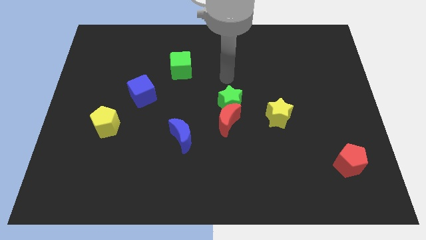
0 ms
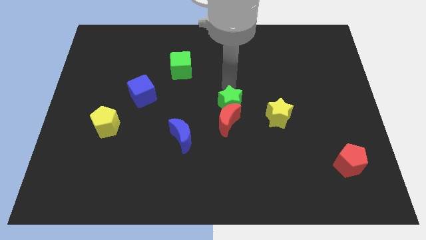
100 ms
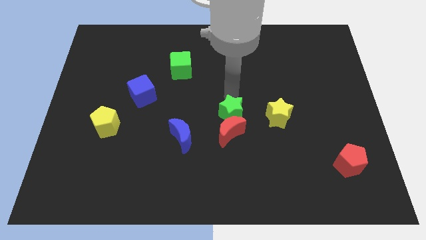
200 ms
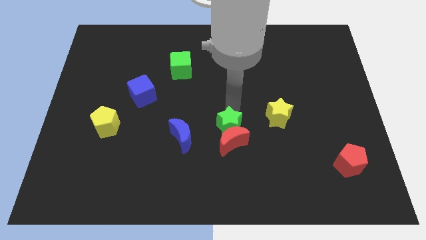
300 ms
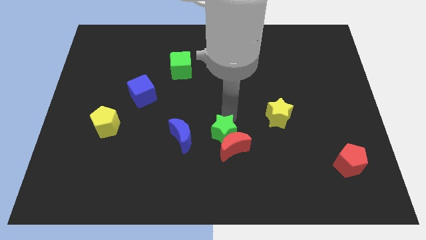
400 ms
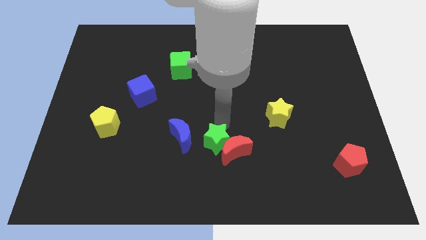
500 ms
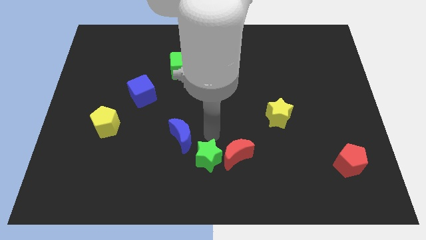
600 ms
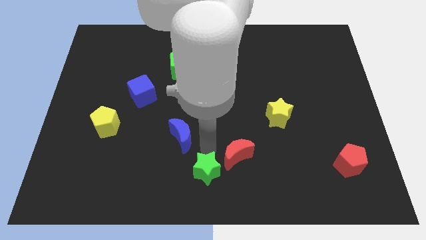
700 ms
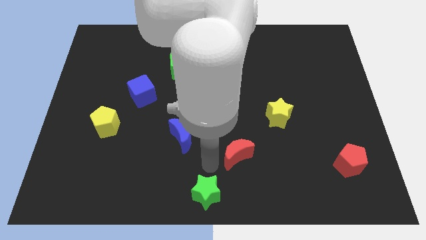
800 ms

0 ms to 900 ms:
separate the red moon from the green star

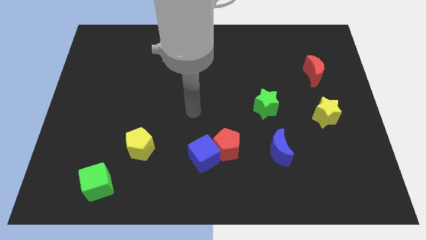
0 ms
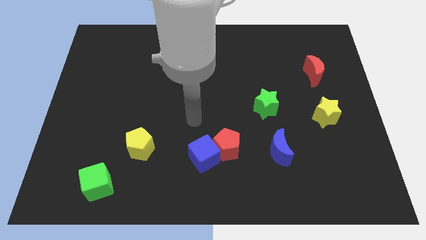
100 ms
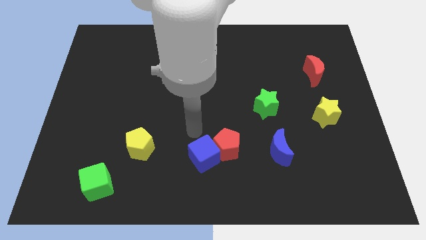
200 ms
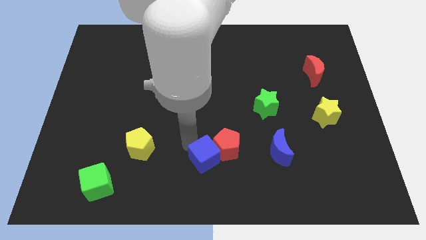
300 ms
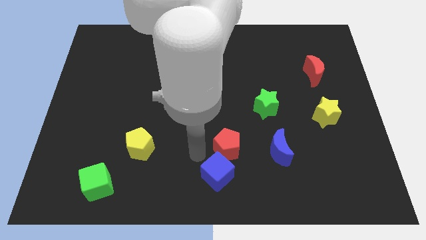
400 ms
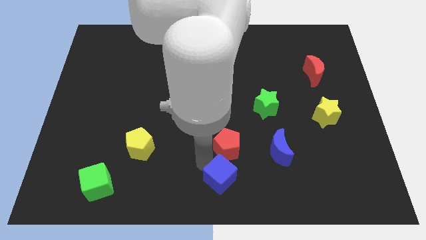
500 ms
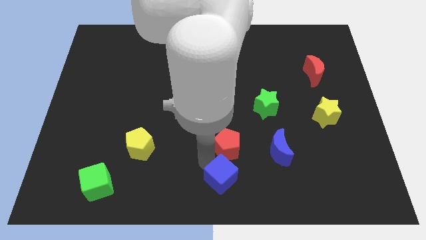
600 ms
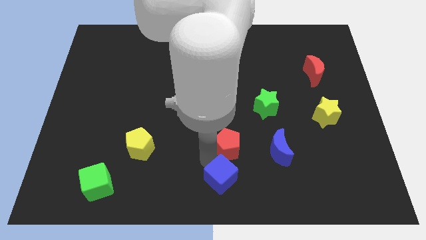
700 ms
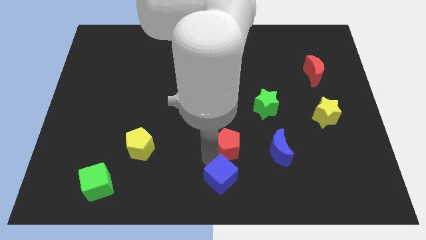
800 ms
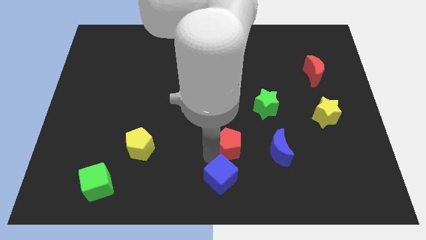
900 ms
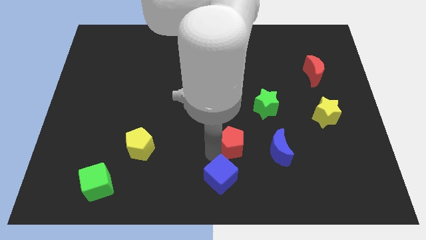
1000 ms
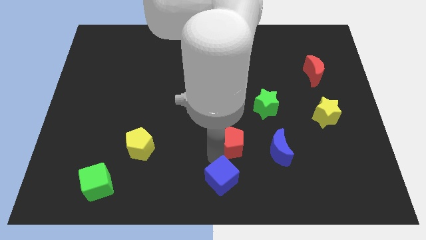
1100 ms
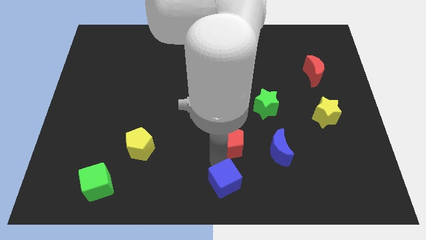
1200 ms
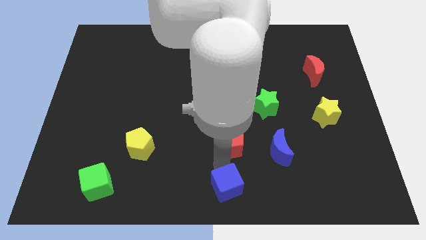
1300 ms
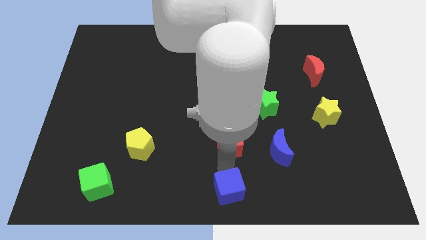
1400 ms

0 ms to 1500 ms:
move the red pentagon away from the blue cube

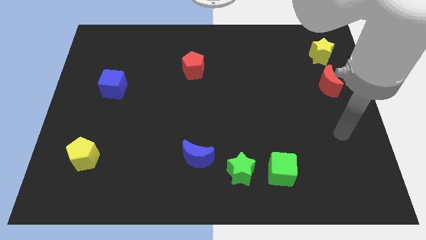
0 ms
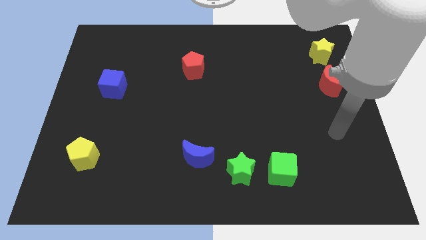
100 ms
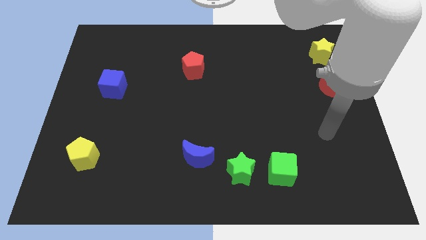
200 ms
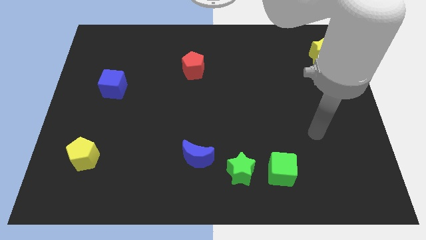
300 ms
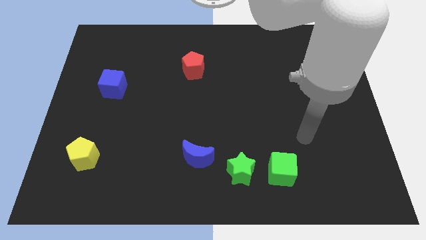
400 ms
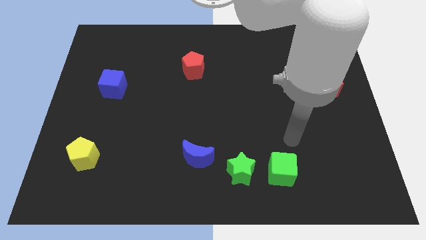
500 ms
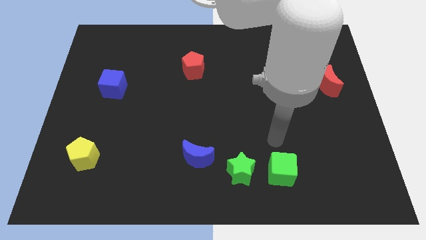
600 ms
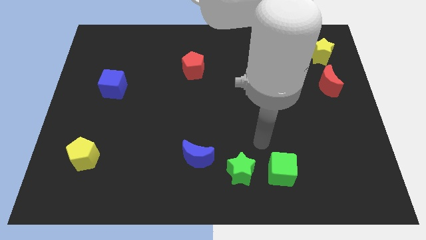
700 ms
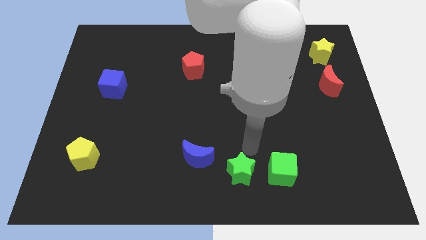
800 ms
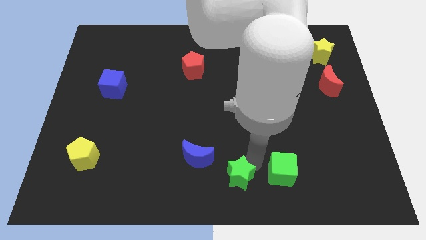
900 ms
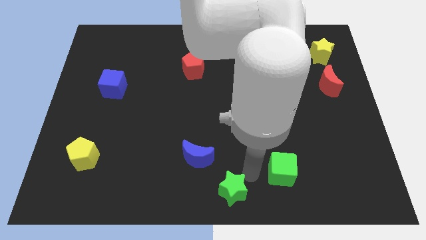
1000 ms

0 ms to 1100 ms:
pull the green cube apart from the green star

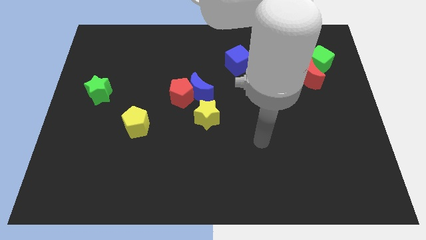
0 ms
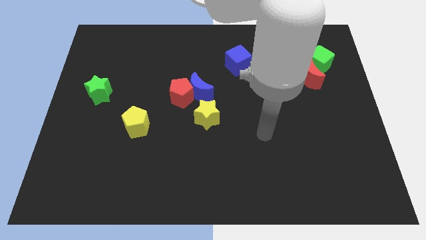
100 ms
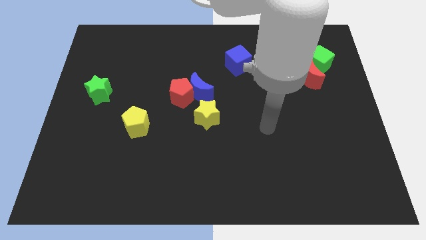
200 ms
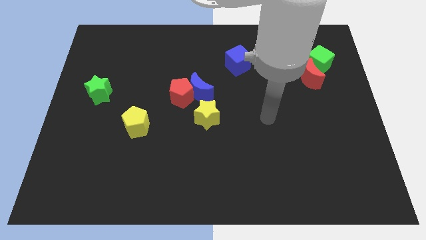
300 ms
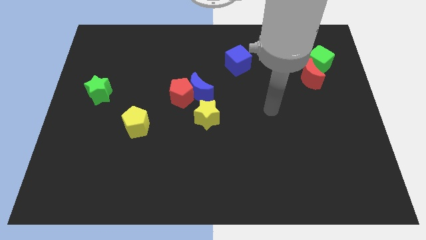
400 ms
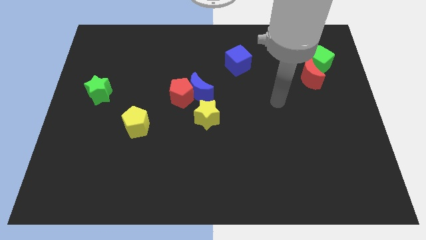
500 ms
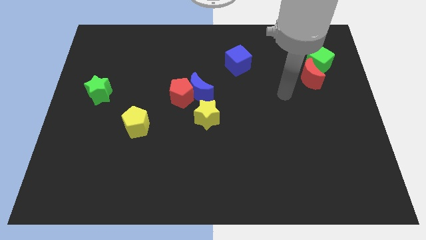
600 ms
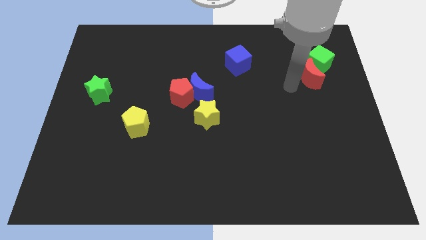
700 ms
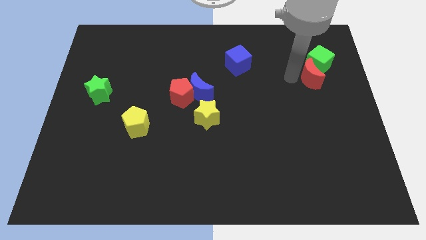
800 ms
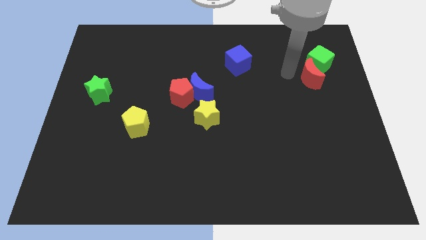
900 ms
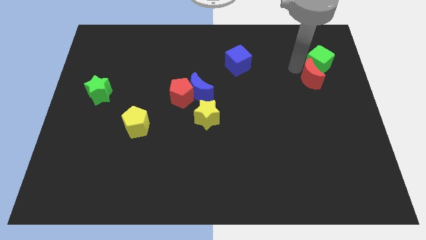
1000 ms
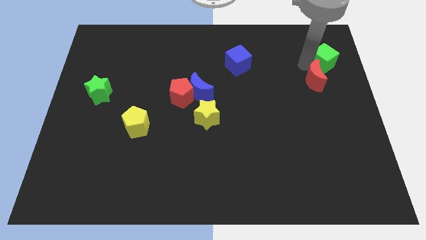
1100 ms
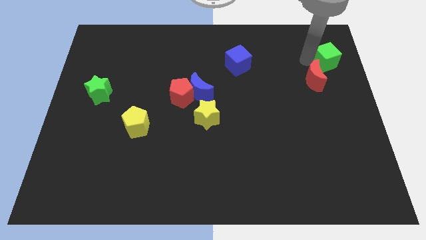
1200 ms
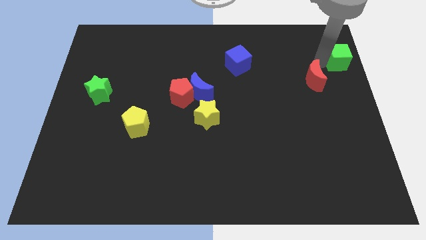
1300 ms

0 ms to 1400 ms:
move the red moon away from the green cube

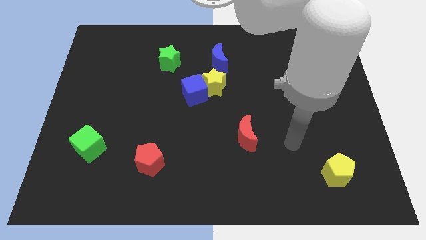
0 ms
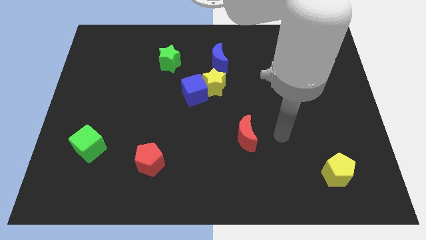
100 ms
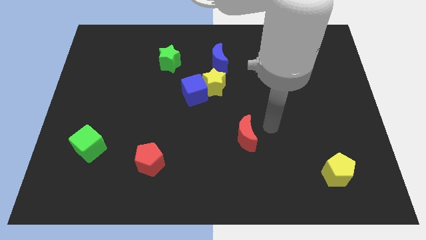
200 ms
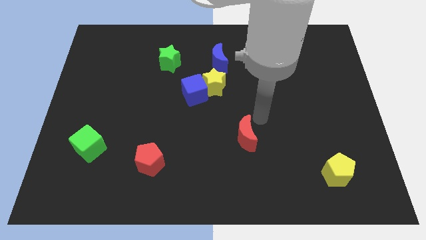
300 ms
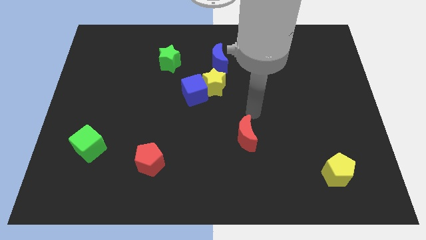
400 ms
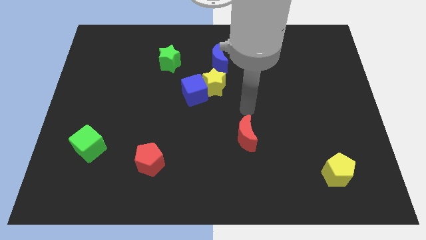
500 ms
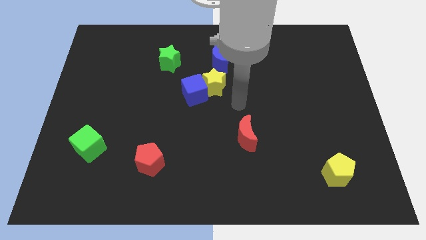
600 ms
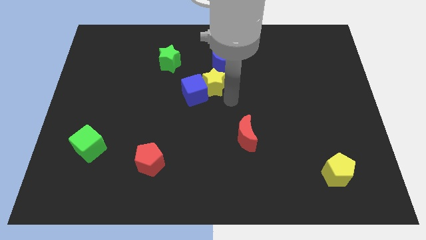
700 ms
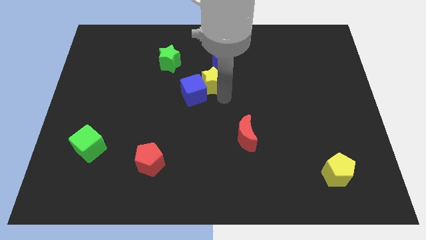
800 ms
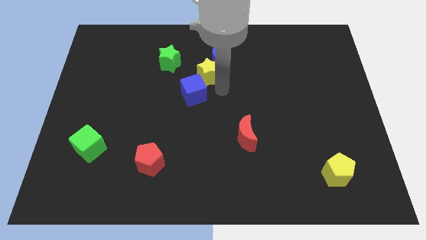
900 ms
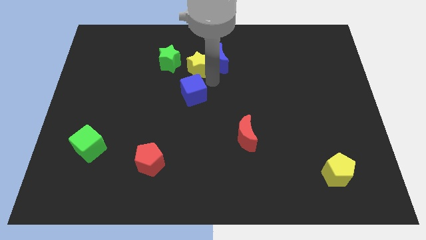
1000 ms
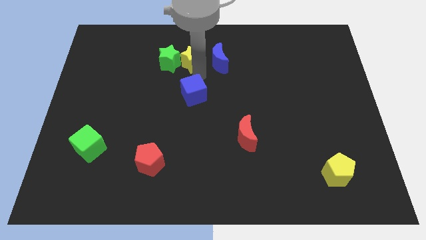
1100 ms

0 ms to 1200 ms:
pull the blue cube apart from the yellow star

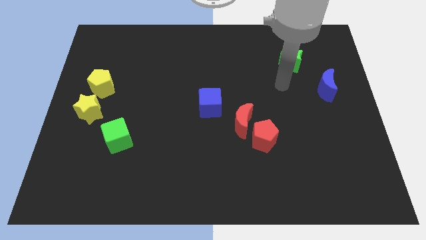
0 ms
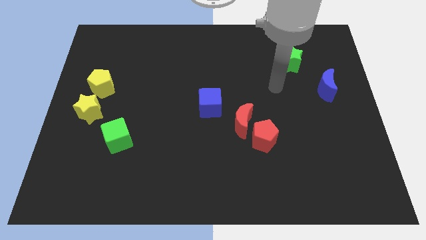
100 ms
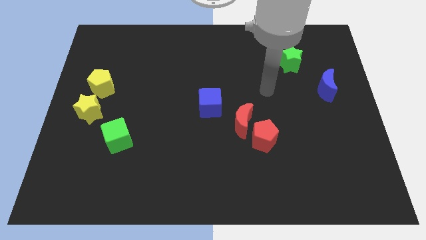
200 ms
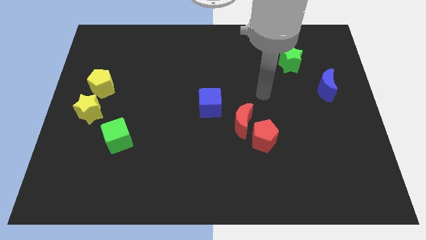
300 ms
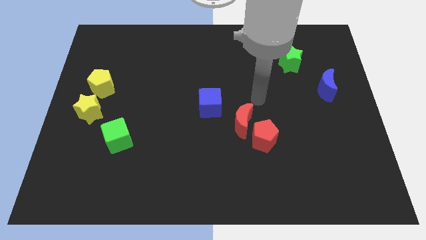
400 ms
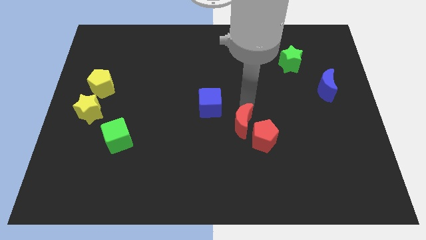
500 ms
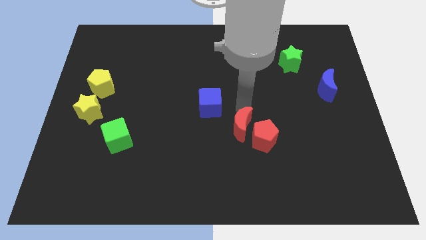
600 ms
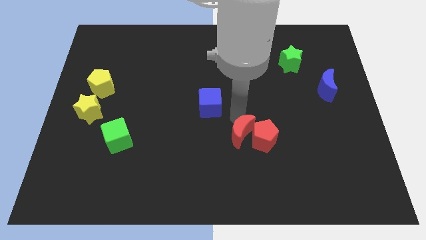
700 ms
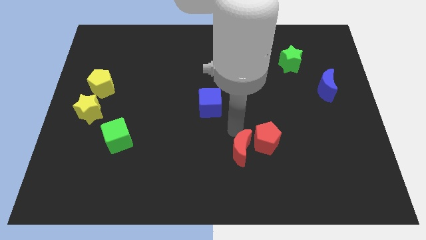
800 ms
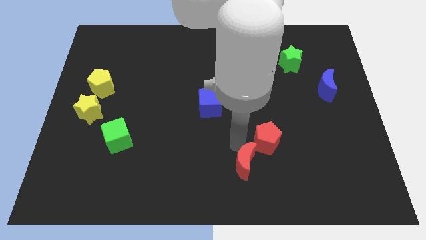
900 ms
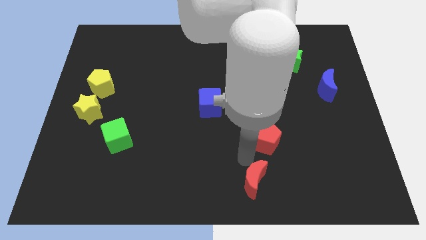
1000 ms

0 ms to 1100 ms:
separate the red pentagon from the red moon

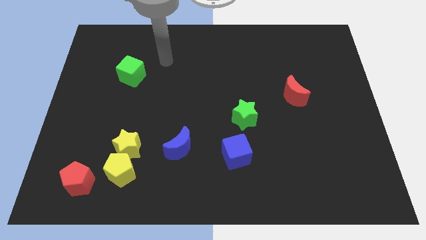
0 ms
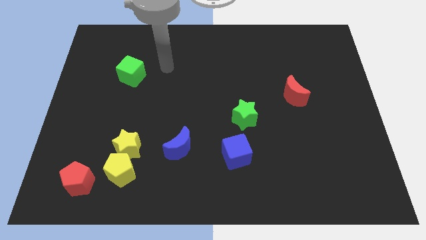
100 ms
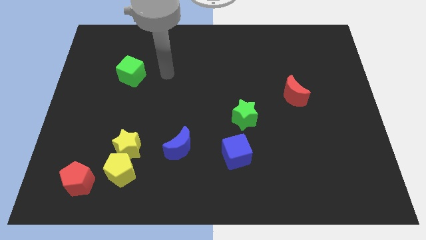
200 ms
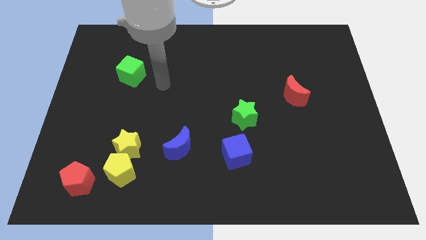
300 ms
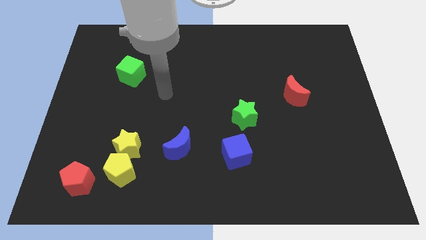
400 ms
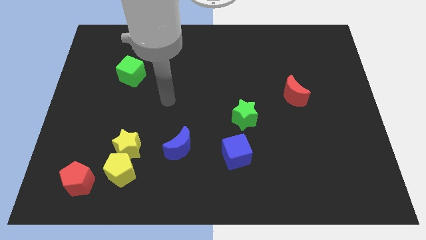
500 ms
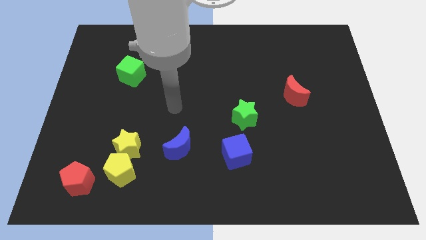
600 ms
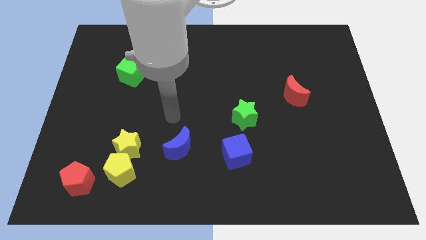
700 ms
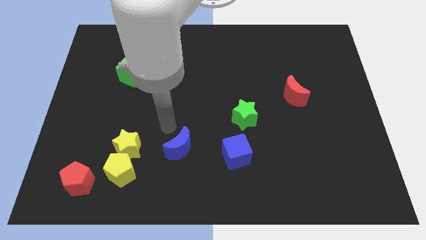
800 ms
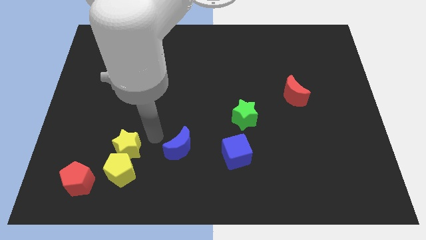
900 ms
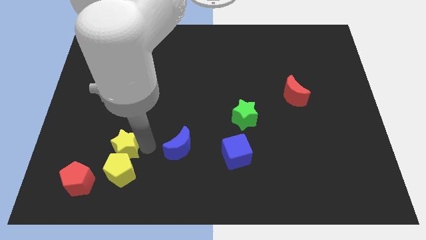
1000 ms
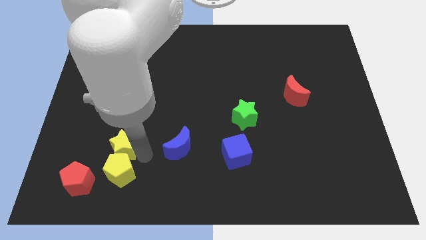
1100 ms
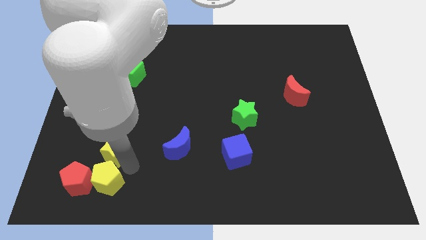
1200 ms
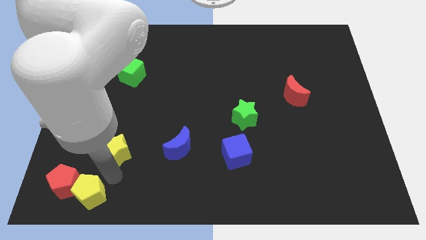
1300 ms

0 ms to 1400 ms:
pull the yellow star apart from the yellow pentagon

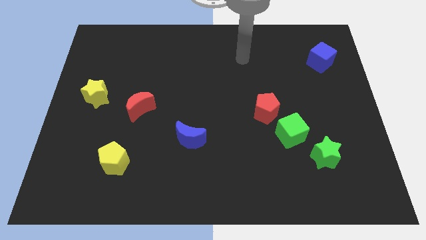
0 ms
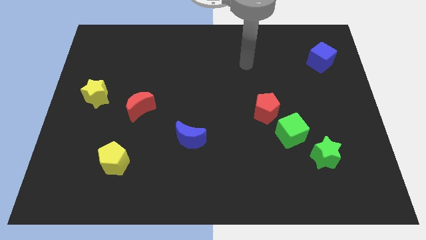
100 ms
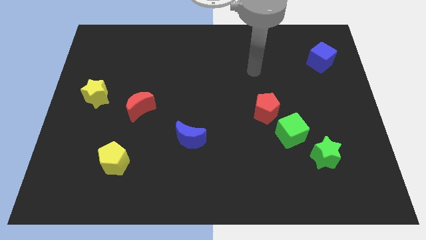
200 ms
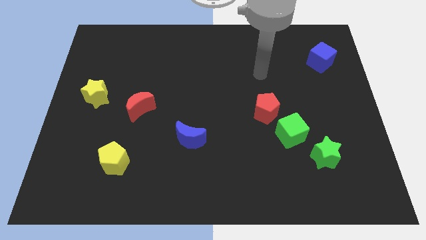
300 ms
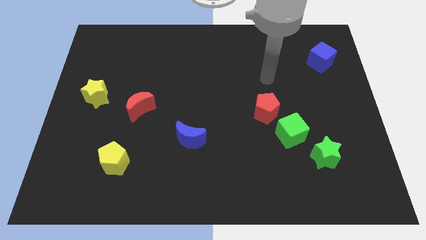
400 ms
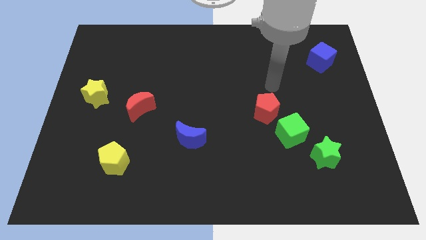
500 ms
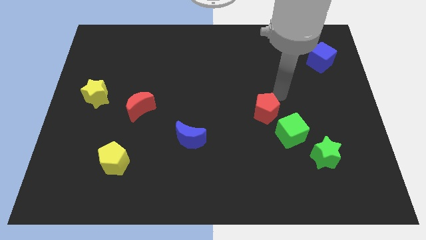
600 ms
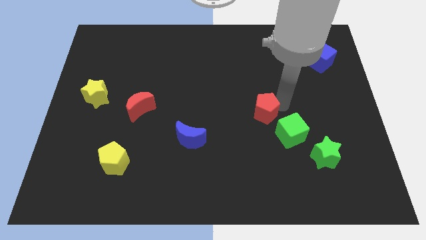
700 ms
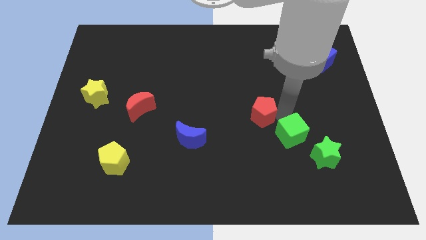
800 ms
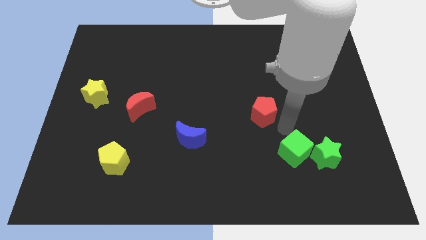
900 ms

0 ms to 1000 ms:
move the red pentagon away from the green cube
